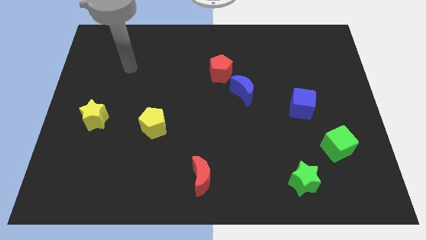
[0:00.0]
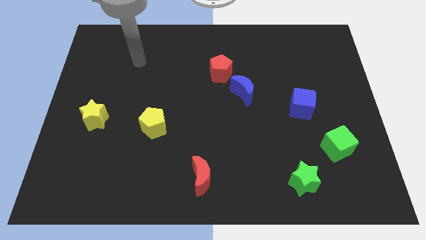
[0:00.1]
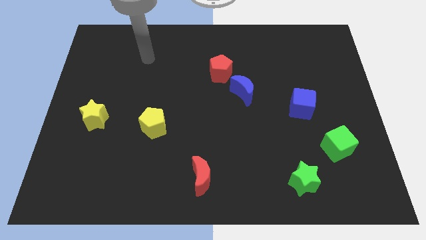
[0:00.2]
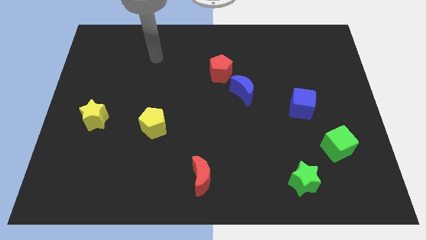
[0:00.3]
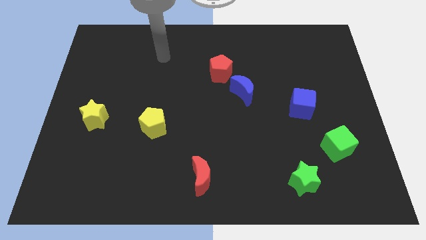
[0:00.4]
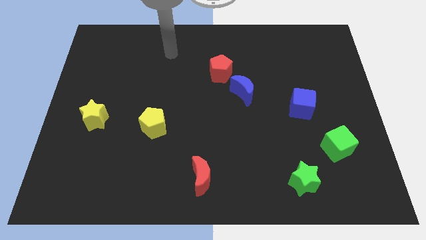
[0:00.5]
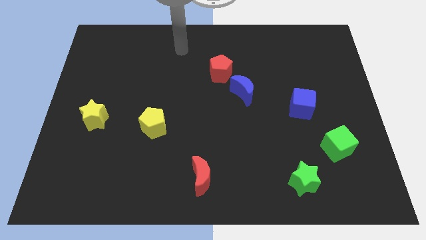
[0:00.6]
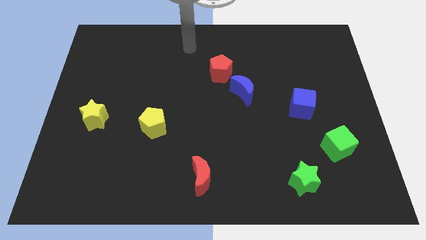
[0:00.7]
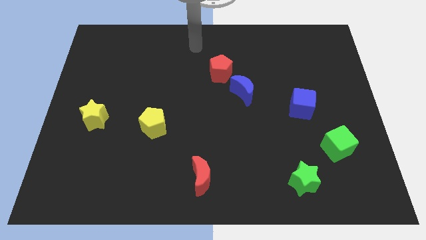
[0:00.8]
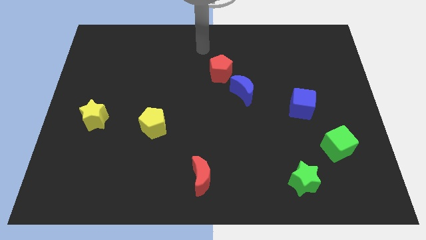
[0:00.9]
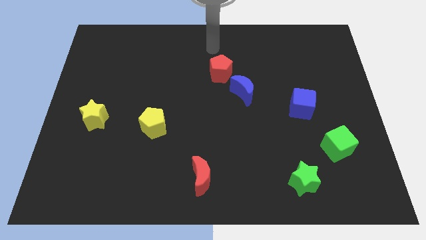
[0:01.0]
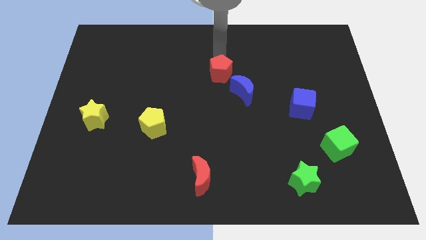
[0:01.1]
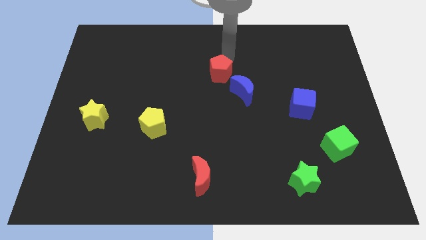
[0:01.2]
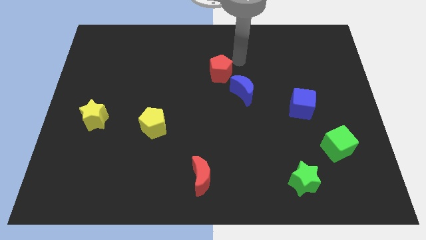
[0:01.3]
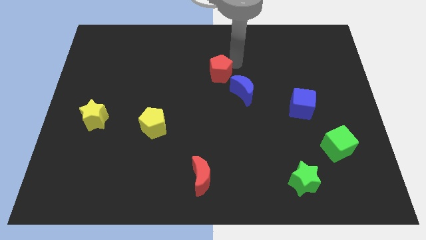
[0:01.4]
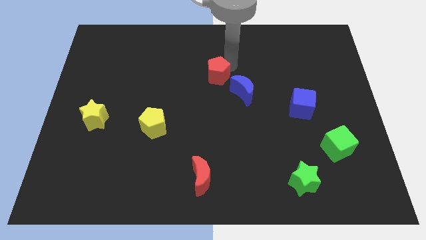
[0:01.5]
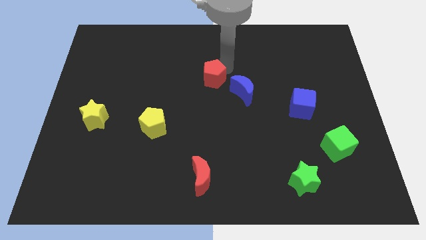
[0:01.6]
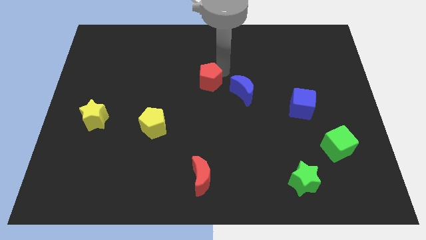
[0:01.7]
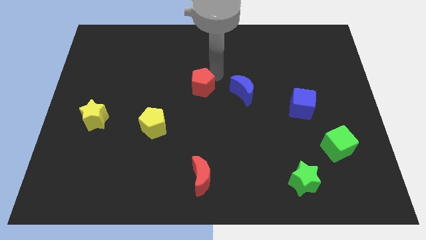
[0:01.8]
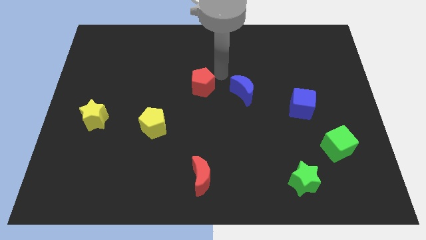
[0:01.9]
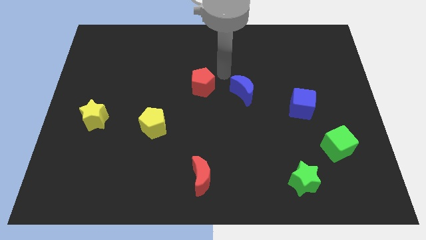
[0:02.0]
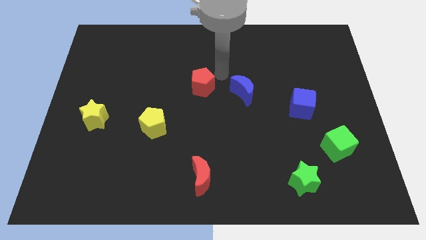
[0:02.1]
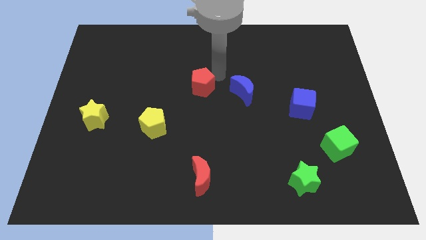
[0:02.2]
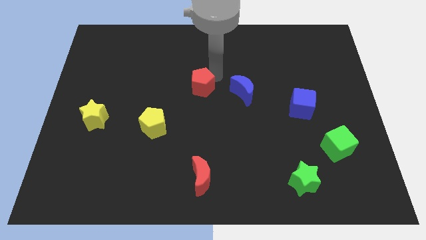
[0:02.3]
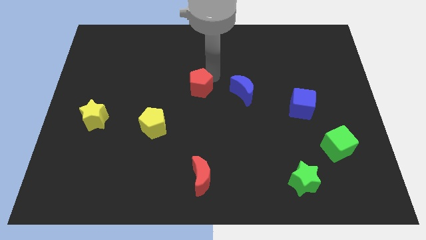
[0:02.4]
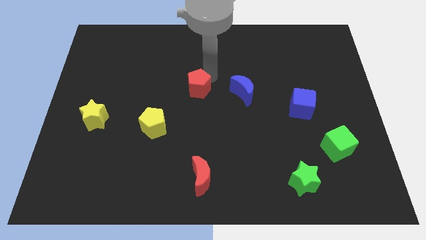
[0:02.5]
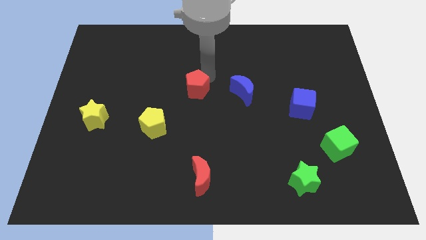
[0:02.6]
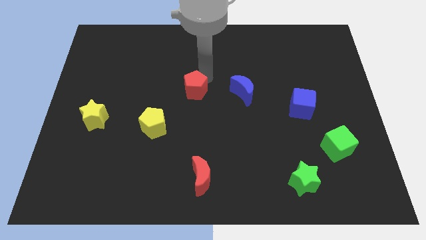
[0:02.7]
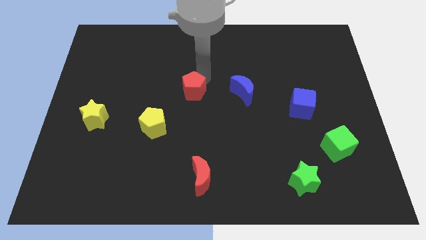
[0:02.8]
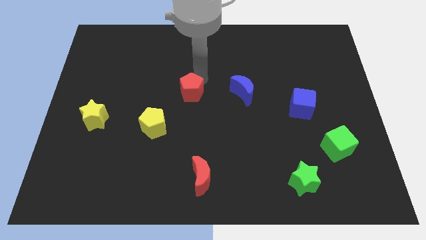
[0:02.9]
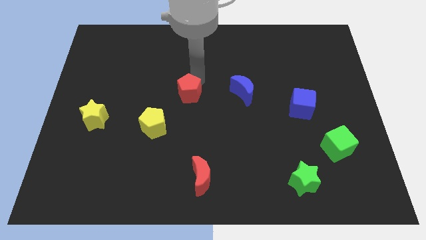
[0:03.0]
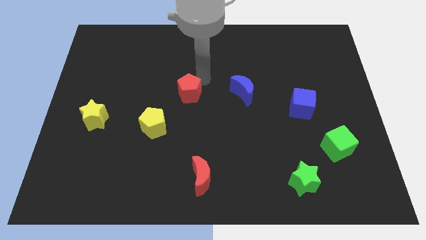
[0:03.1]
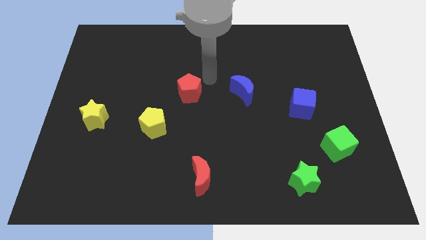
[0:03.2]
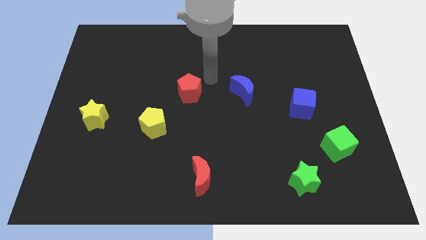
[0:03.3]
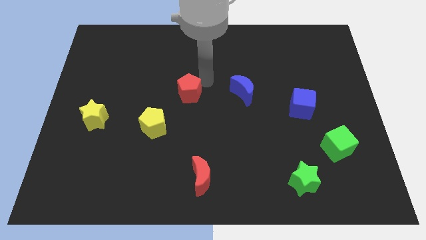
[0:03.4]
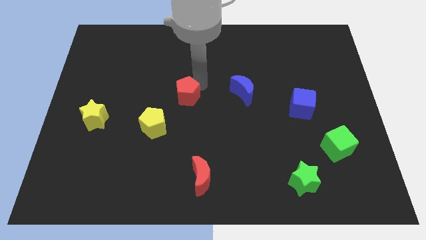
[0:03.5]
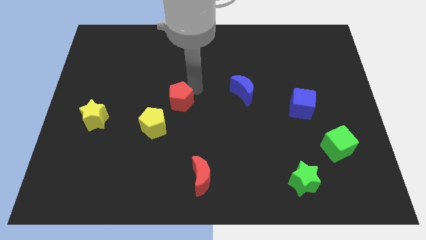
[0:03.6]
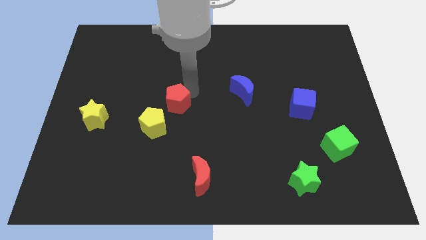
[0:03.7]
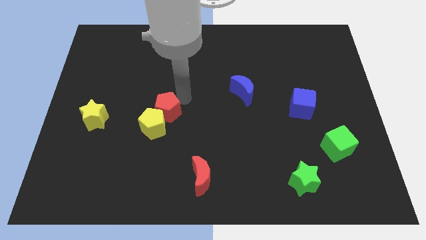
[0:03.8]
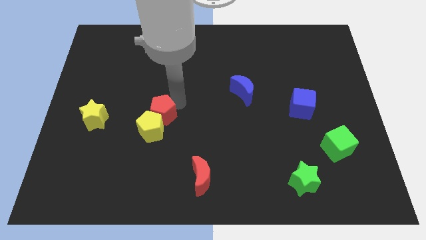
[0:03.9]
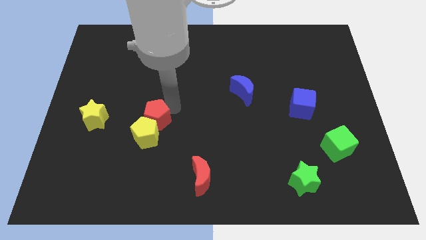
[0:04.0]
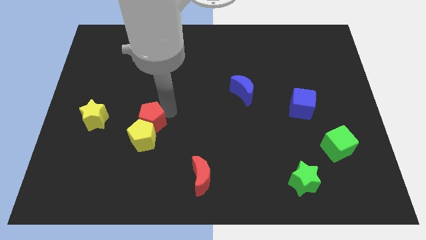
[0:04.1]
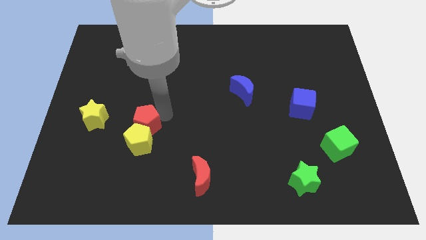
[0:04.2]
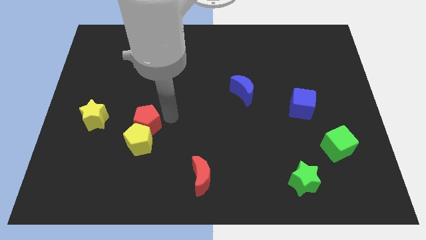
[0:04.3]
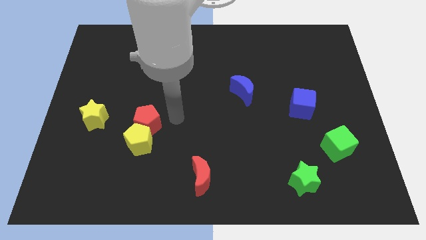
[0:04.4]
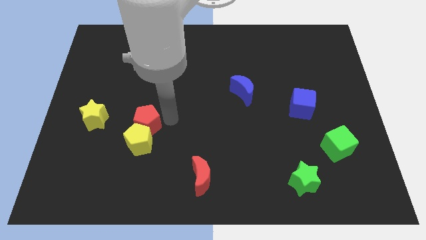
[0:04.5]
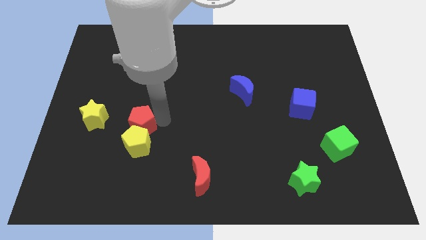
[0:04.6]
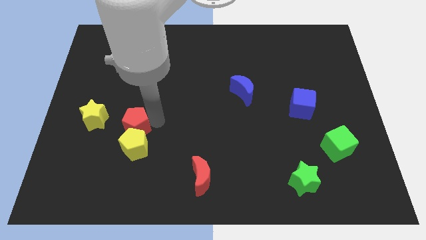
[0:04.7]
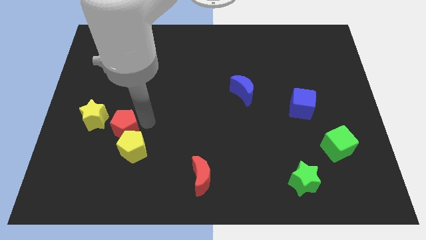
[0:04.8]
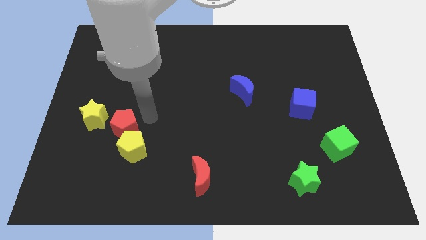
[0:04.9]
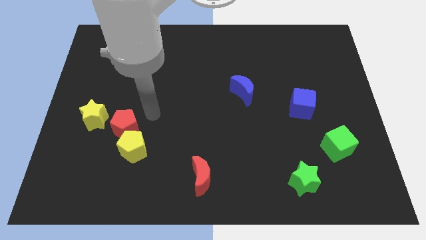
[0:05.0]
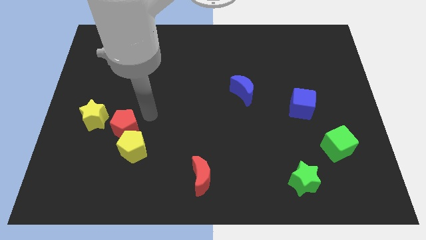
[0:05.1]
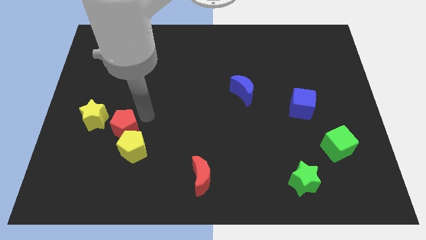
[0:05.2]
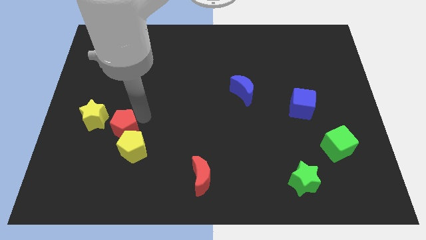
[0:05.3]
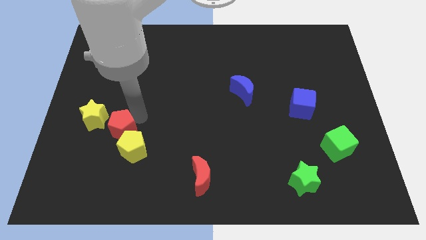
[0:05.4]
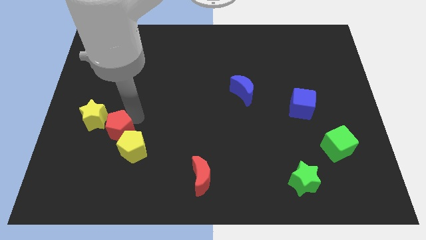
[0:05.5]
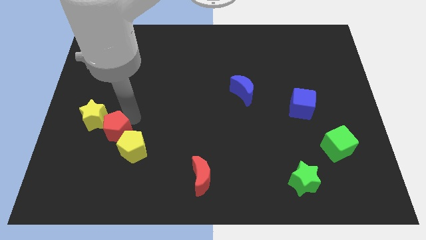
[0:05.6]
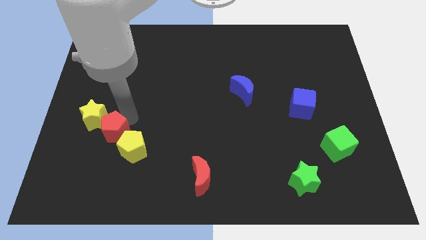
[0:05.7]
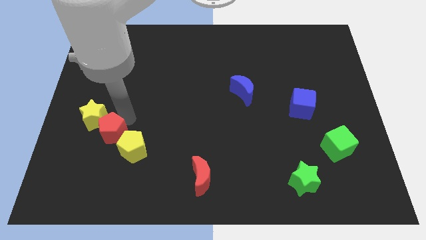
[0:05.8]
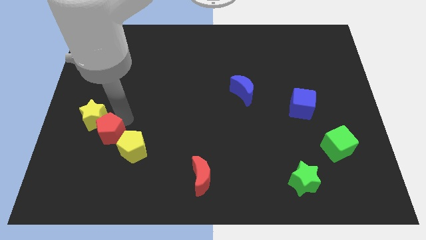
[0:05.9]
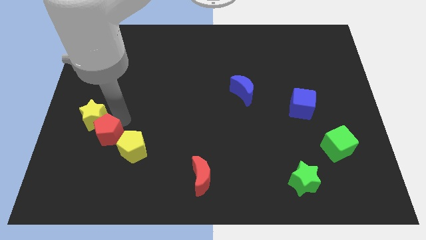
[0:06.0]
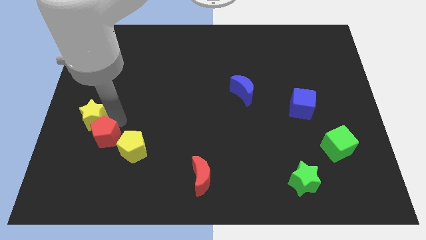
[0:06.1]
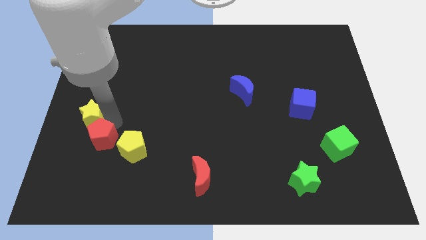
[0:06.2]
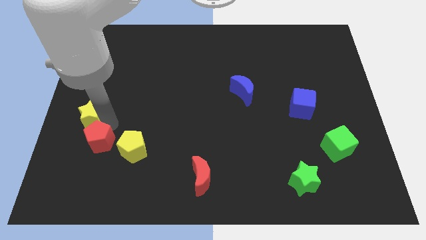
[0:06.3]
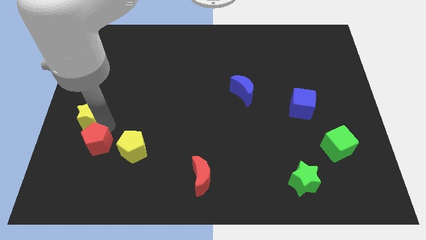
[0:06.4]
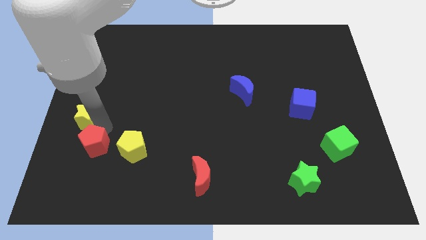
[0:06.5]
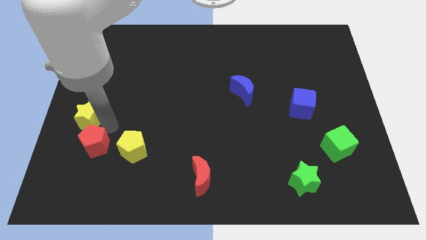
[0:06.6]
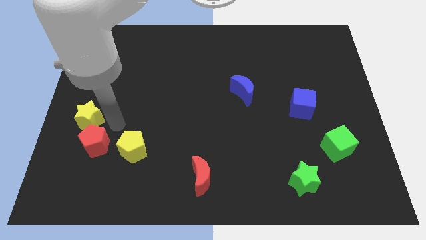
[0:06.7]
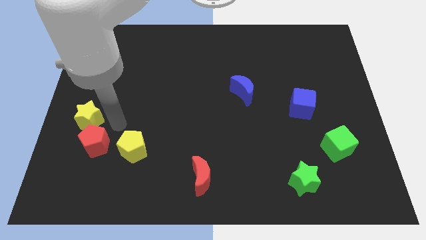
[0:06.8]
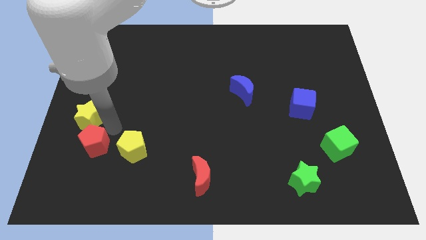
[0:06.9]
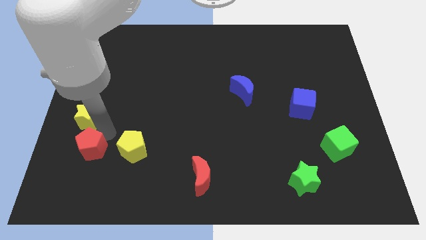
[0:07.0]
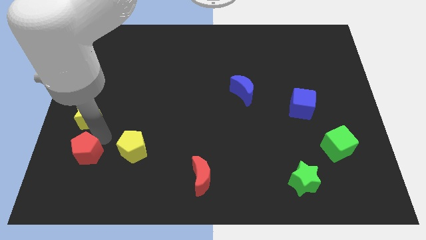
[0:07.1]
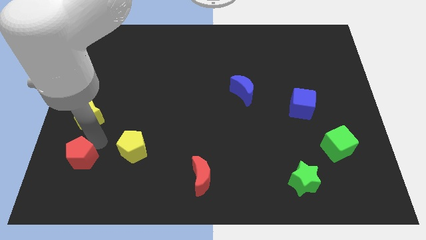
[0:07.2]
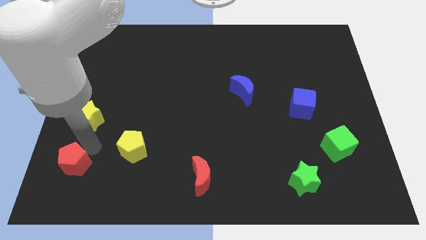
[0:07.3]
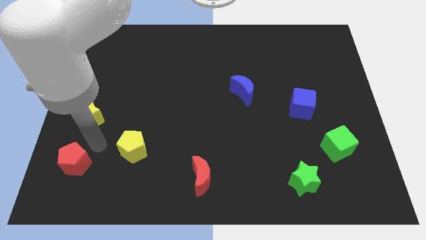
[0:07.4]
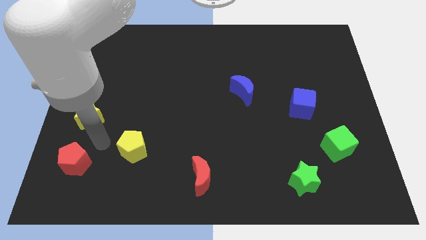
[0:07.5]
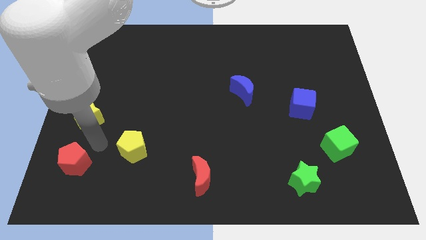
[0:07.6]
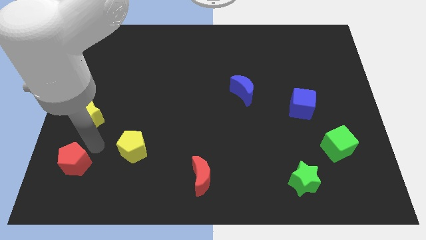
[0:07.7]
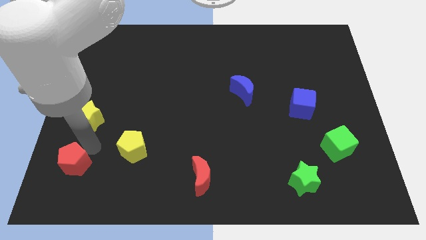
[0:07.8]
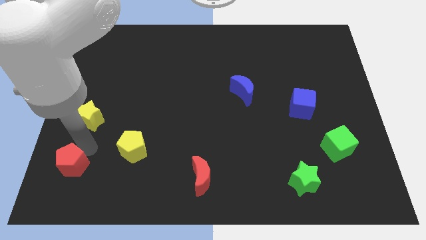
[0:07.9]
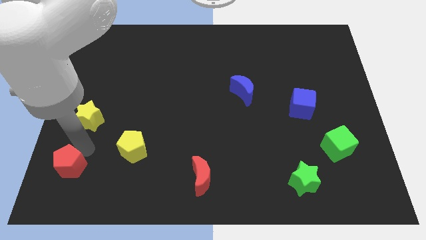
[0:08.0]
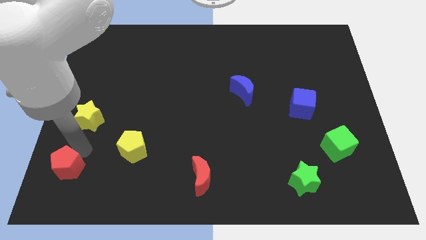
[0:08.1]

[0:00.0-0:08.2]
push the red pentagon to the bottom left of the board
